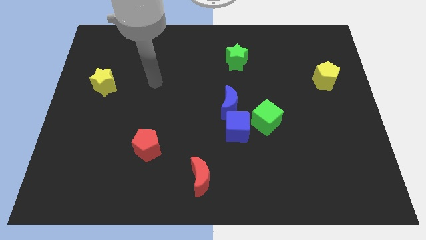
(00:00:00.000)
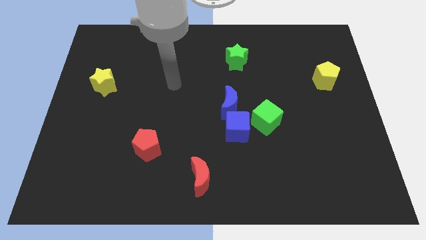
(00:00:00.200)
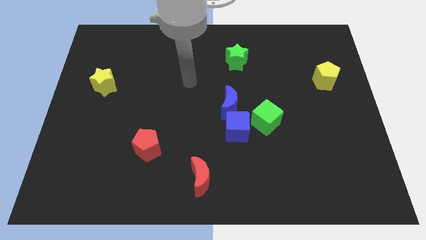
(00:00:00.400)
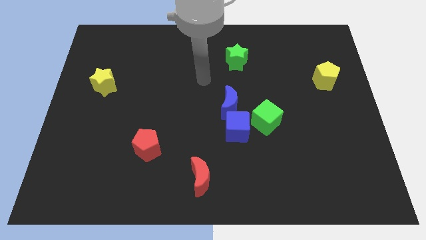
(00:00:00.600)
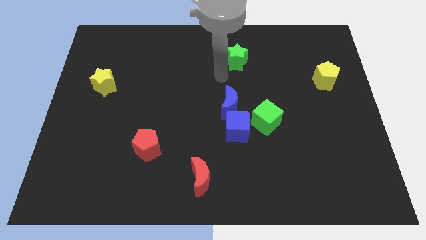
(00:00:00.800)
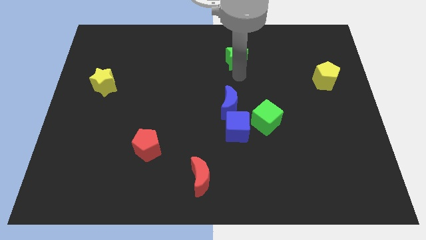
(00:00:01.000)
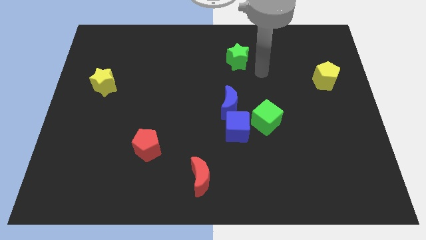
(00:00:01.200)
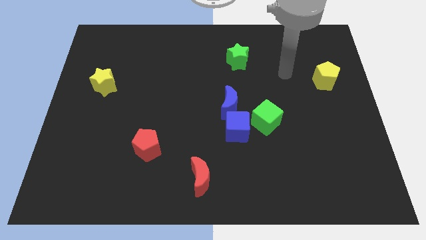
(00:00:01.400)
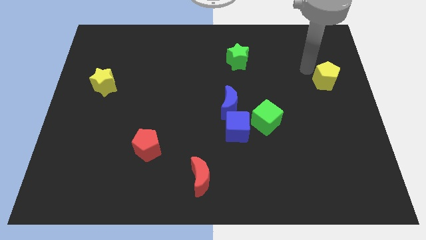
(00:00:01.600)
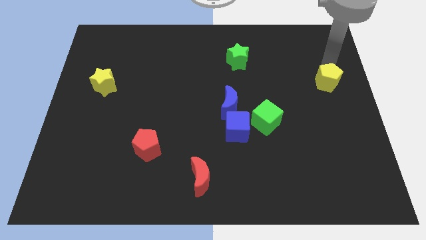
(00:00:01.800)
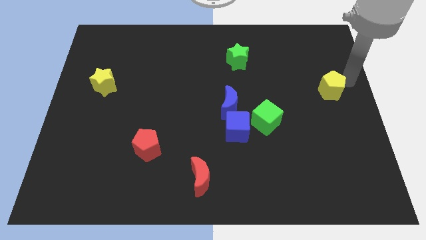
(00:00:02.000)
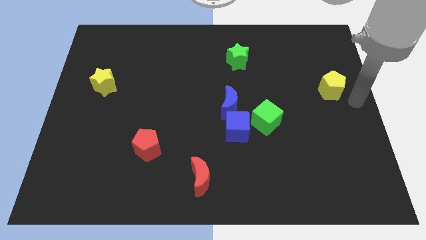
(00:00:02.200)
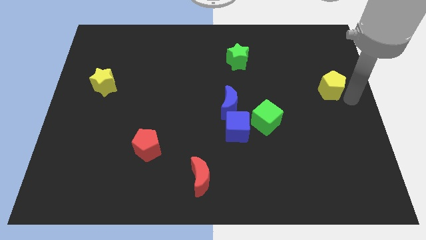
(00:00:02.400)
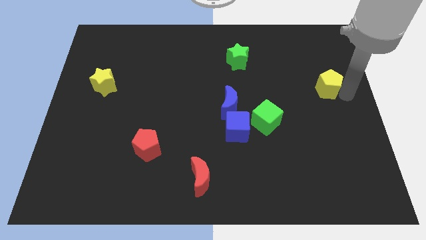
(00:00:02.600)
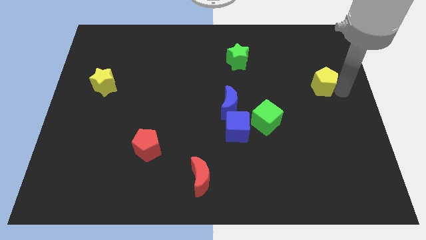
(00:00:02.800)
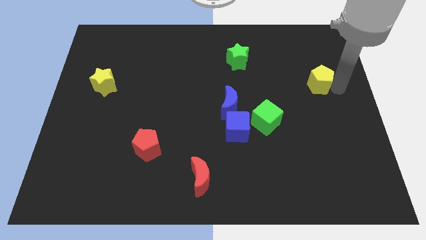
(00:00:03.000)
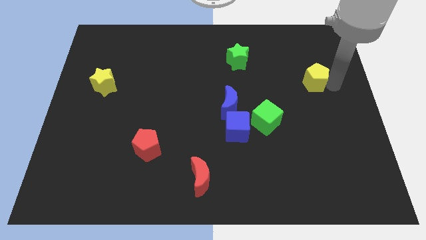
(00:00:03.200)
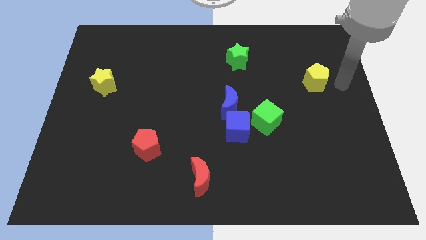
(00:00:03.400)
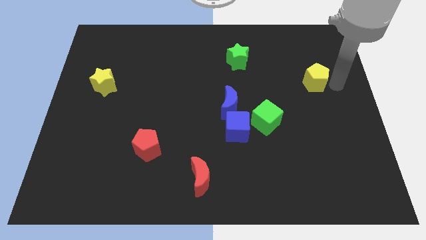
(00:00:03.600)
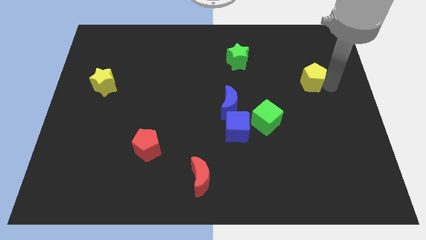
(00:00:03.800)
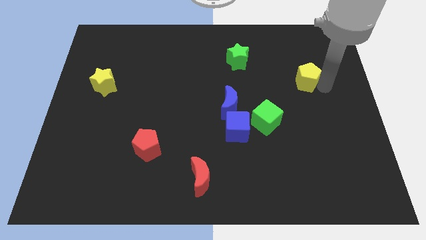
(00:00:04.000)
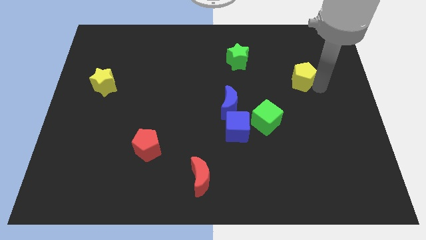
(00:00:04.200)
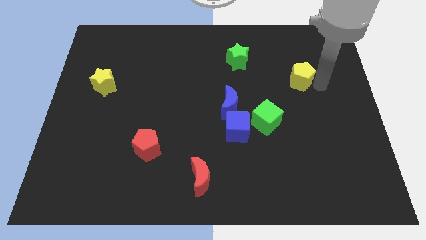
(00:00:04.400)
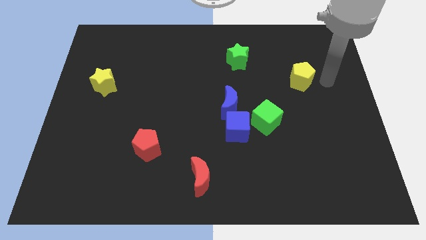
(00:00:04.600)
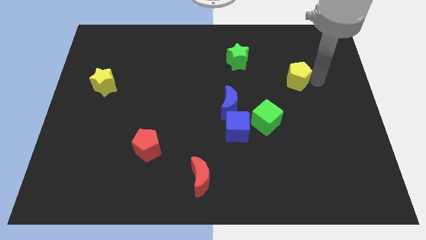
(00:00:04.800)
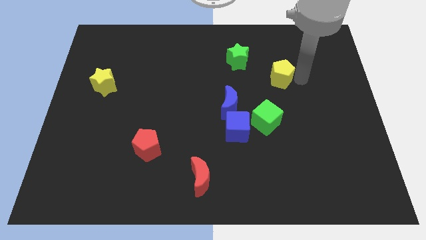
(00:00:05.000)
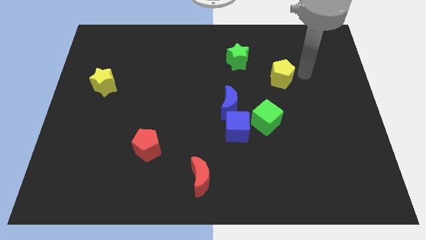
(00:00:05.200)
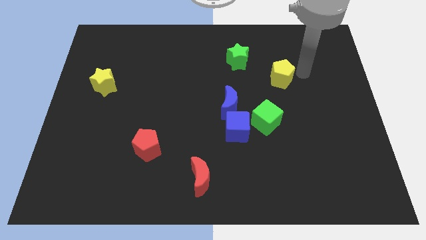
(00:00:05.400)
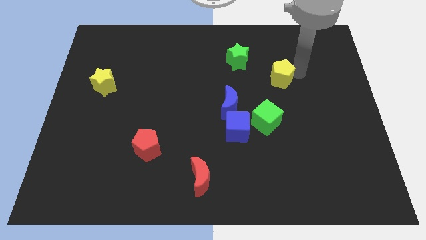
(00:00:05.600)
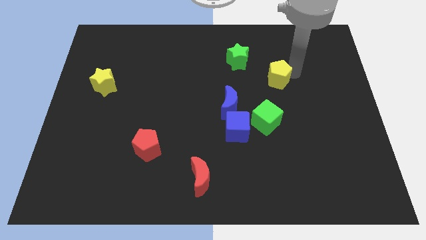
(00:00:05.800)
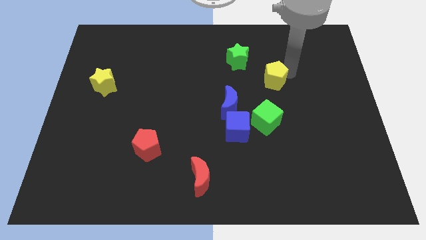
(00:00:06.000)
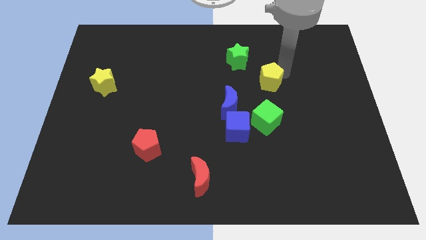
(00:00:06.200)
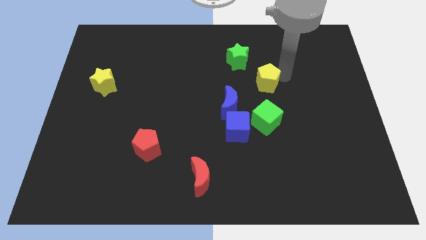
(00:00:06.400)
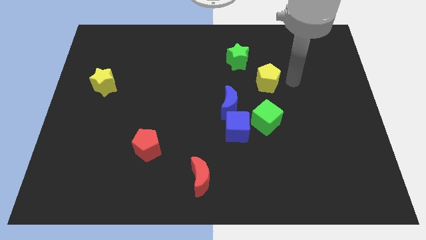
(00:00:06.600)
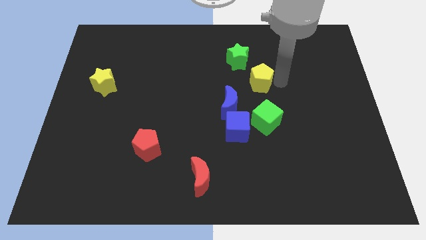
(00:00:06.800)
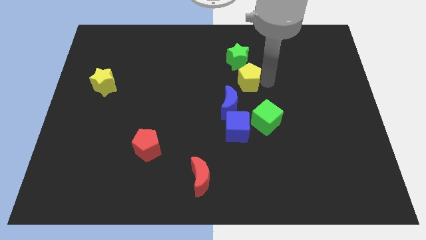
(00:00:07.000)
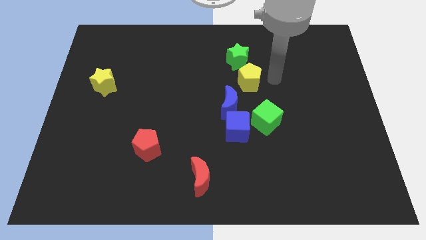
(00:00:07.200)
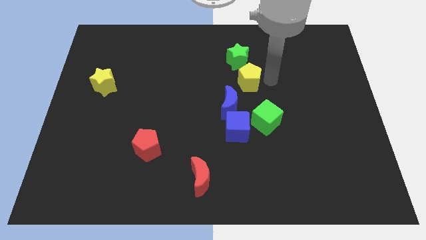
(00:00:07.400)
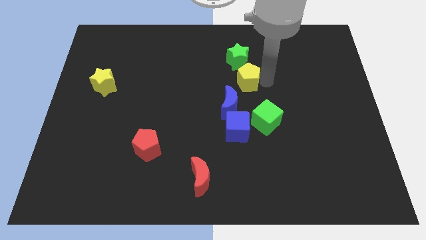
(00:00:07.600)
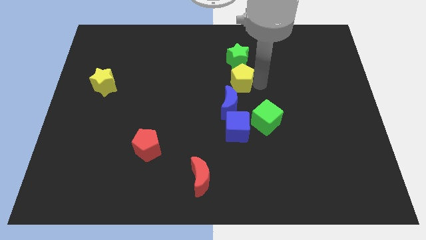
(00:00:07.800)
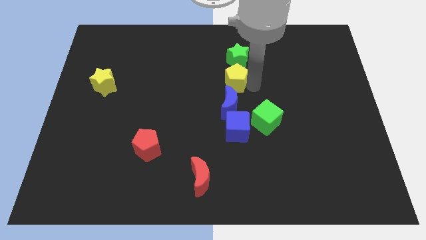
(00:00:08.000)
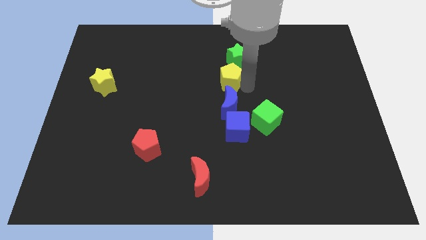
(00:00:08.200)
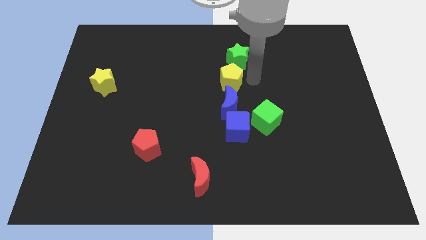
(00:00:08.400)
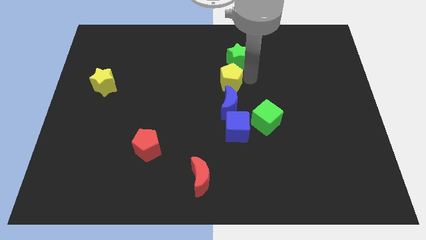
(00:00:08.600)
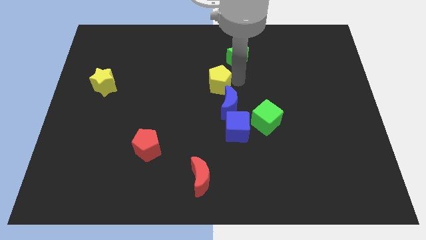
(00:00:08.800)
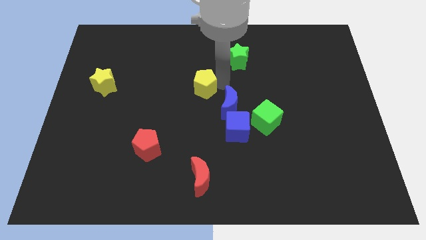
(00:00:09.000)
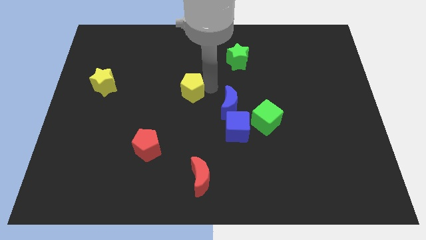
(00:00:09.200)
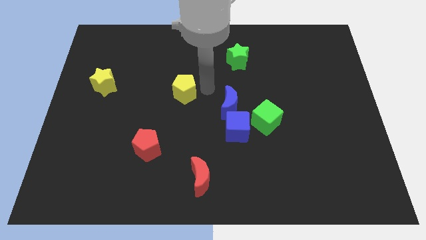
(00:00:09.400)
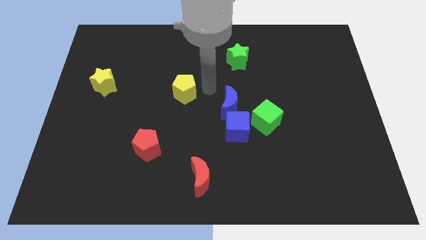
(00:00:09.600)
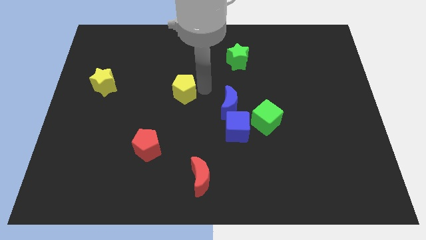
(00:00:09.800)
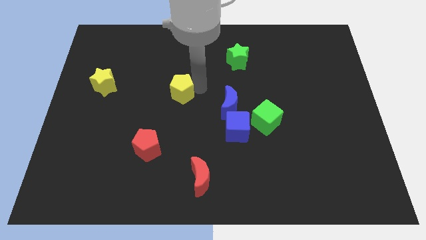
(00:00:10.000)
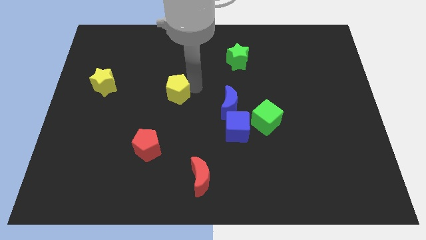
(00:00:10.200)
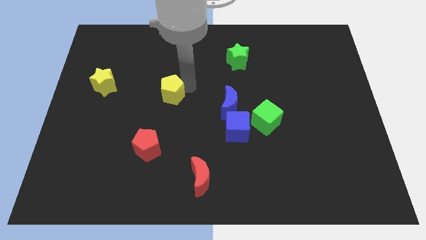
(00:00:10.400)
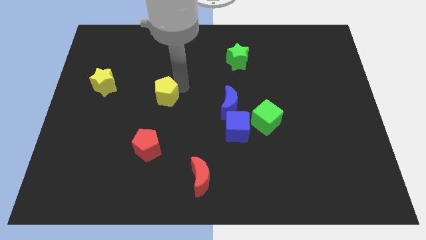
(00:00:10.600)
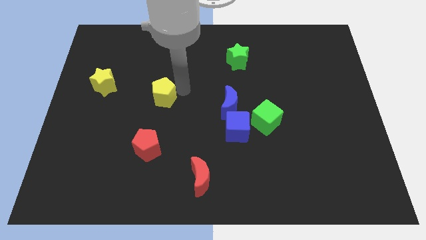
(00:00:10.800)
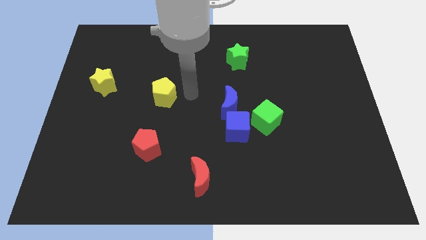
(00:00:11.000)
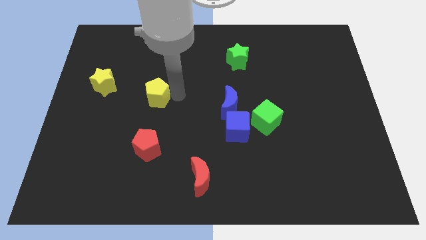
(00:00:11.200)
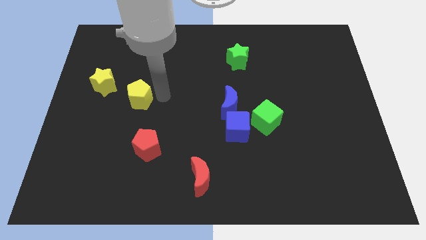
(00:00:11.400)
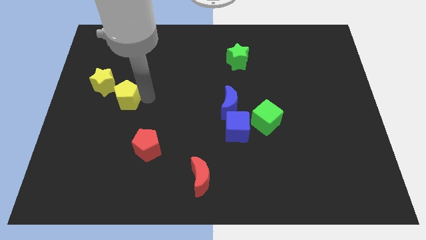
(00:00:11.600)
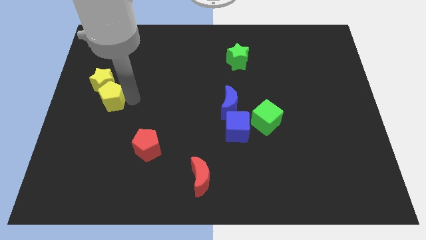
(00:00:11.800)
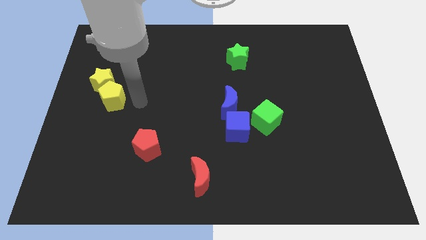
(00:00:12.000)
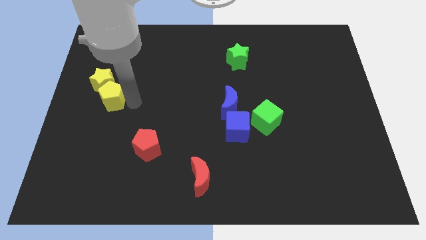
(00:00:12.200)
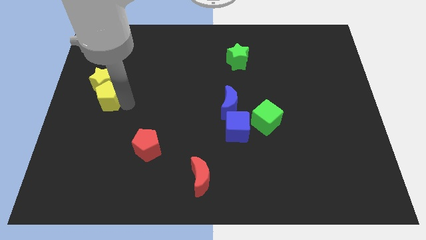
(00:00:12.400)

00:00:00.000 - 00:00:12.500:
put the yellow pentagon to the left side
